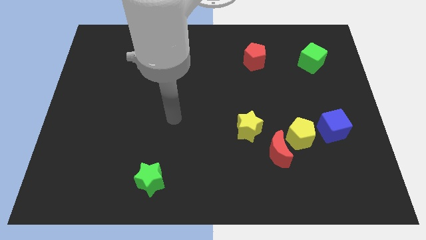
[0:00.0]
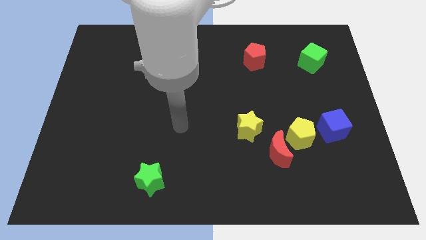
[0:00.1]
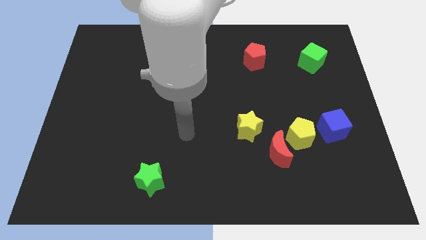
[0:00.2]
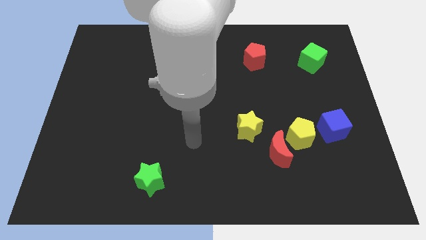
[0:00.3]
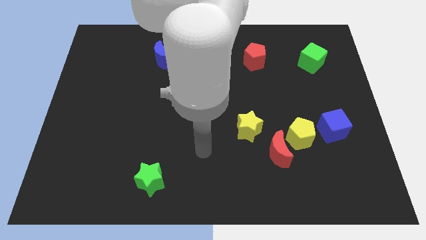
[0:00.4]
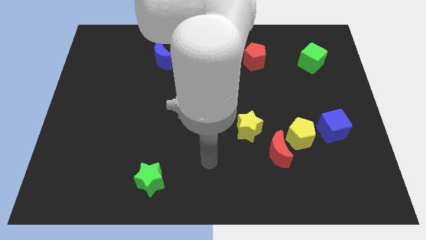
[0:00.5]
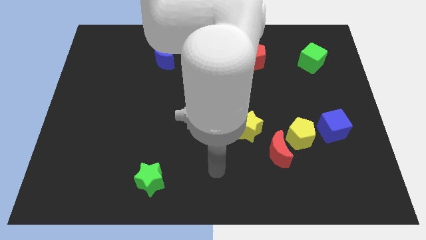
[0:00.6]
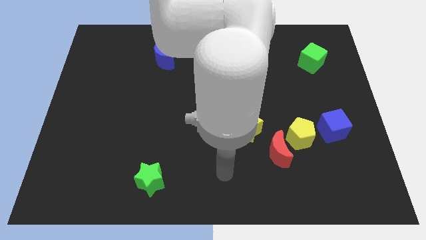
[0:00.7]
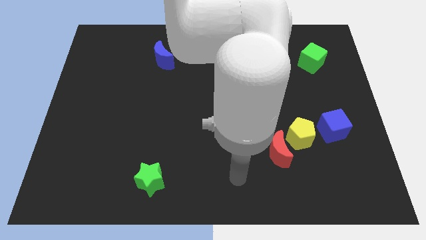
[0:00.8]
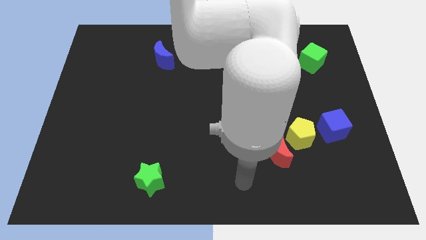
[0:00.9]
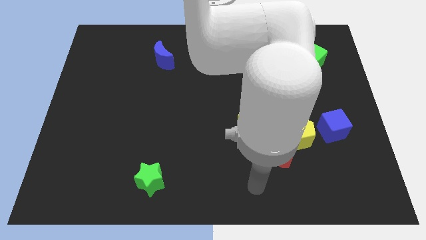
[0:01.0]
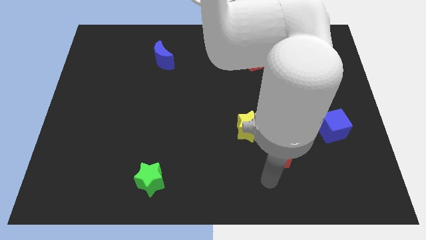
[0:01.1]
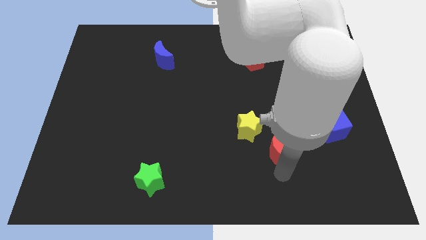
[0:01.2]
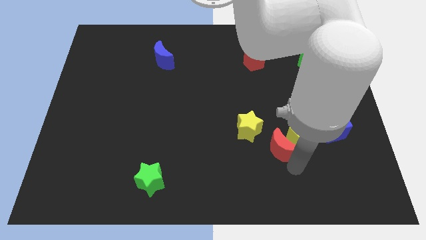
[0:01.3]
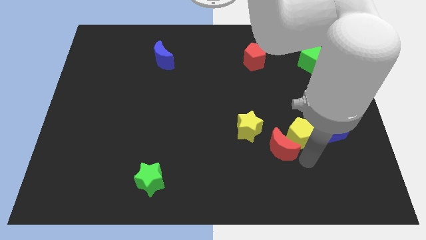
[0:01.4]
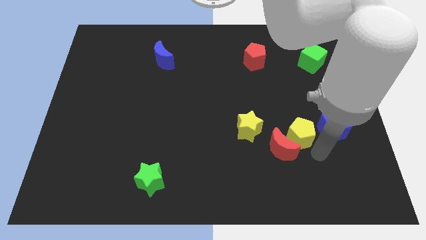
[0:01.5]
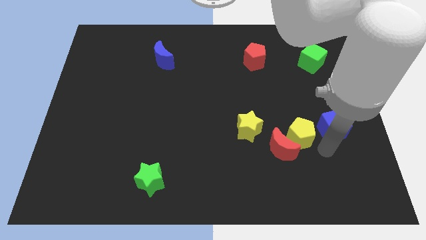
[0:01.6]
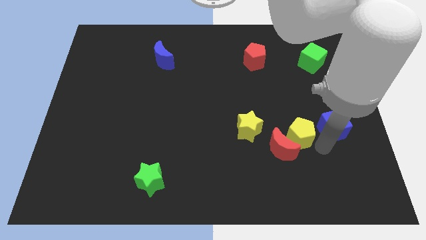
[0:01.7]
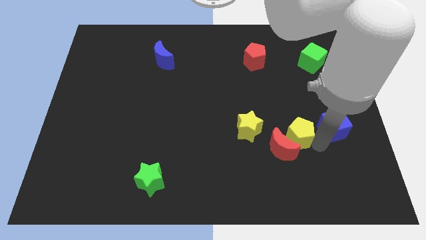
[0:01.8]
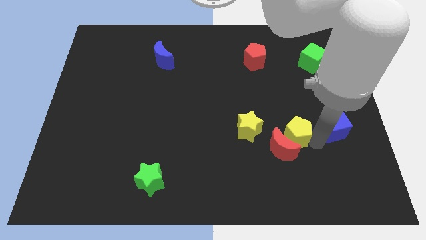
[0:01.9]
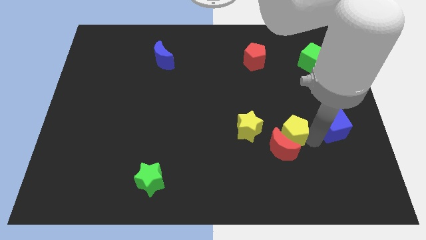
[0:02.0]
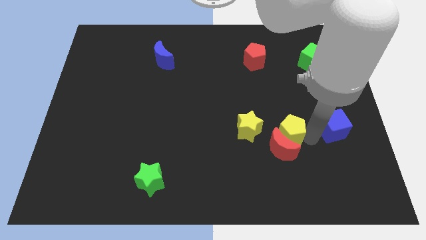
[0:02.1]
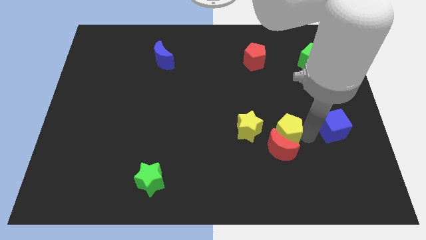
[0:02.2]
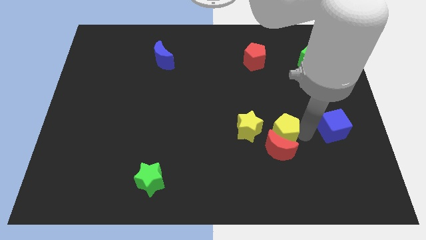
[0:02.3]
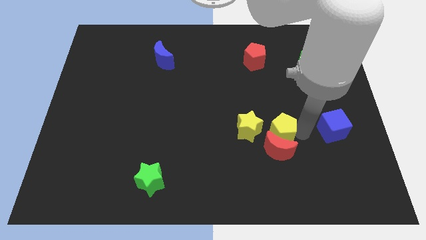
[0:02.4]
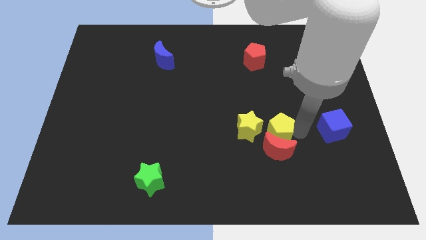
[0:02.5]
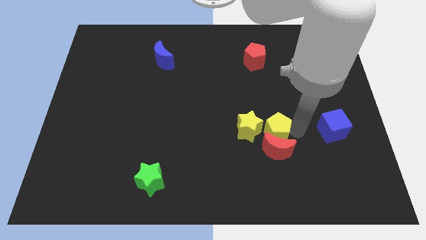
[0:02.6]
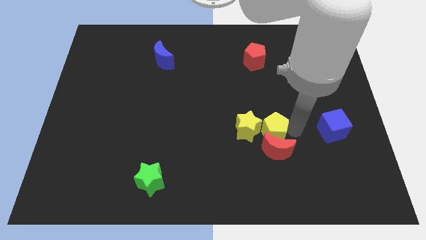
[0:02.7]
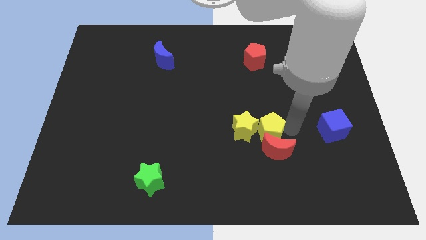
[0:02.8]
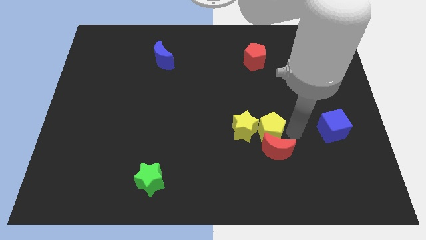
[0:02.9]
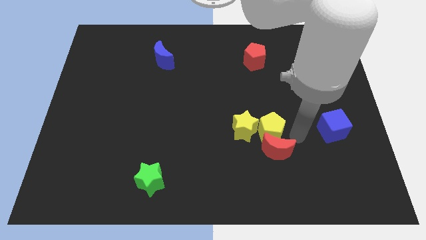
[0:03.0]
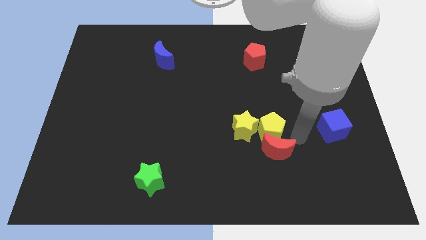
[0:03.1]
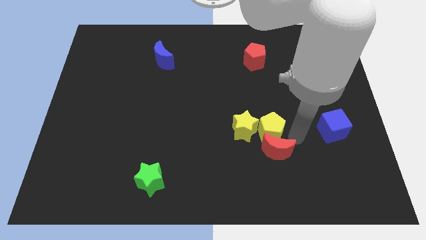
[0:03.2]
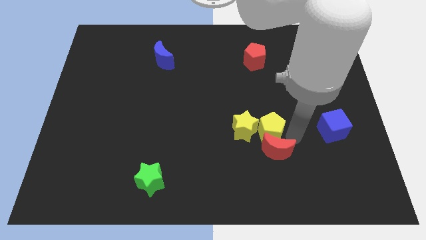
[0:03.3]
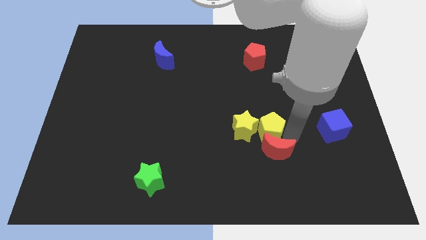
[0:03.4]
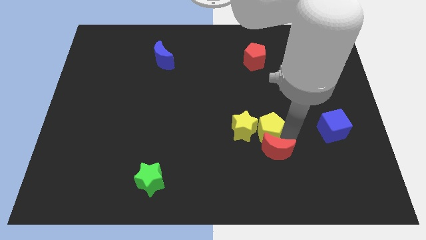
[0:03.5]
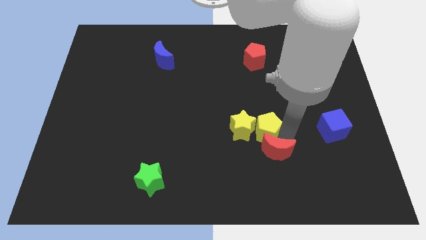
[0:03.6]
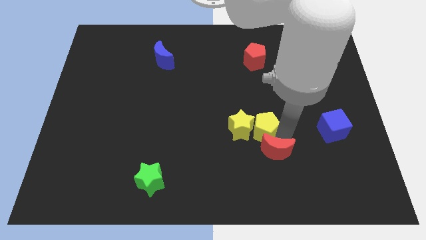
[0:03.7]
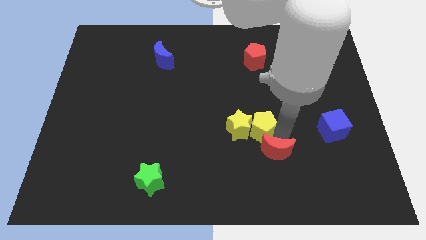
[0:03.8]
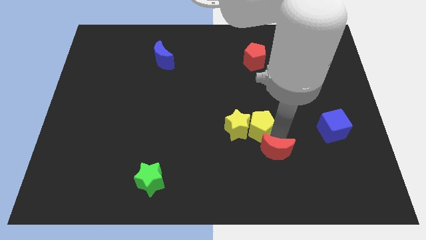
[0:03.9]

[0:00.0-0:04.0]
pull the yellow pentagon apart from the red moon and blue cube

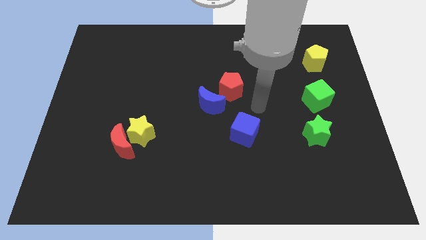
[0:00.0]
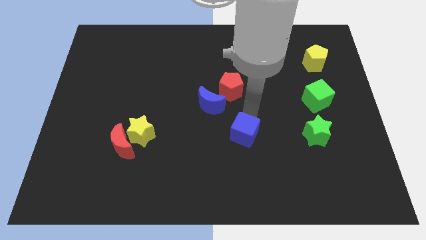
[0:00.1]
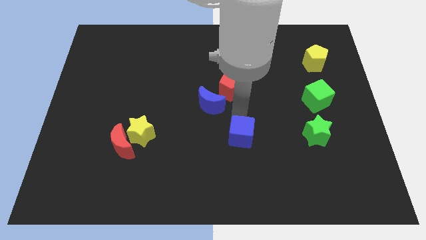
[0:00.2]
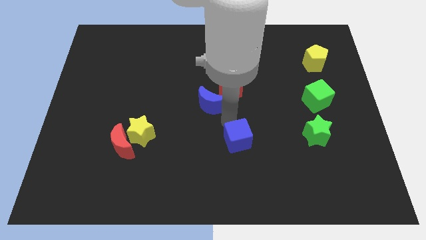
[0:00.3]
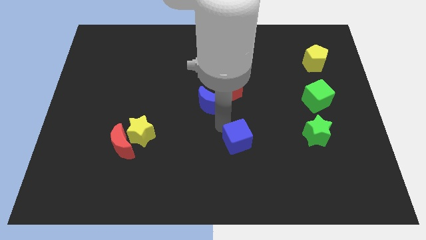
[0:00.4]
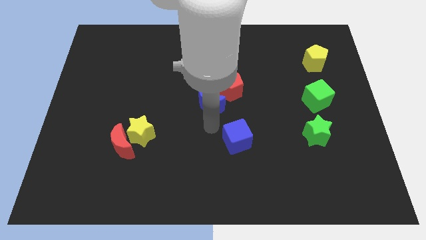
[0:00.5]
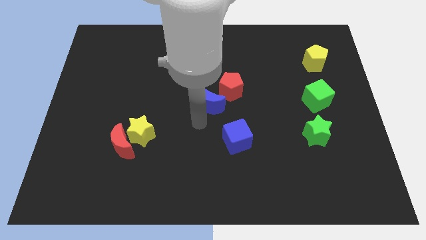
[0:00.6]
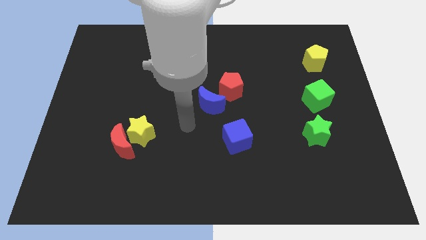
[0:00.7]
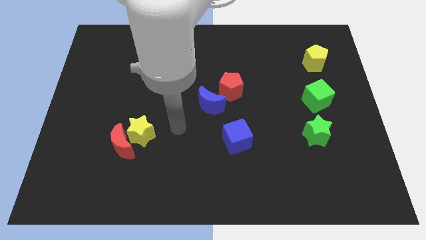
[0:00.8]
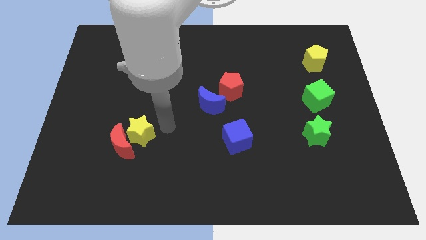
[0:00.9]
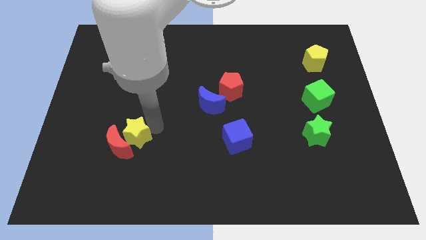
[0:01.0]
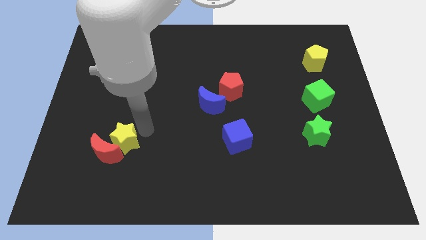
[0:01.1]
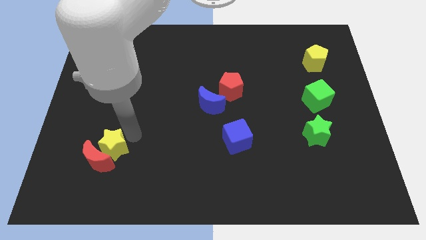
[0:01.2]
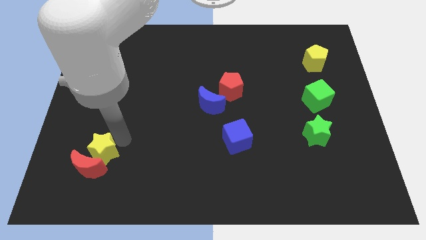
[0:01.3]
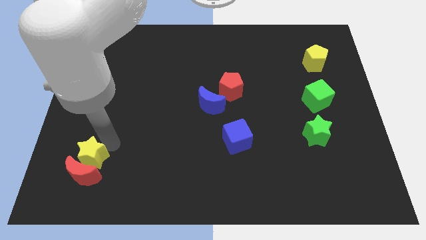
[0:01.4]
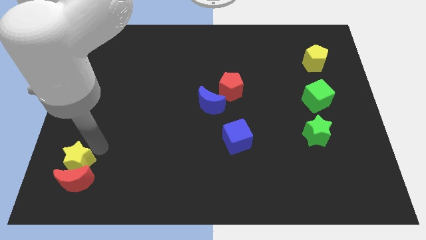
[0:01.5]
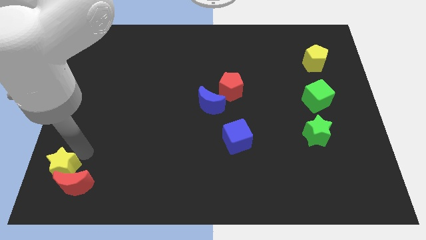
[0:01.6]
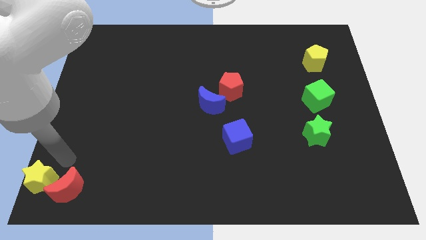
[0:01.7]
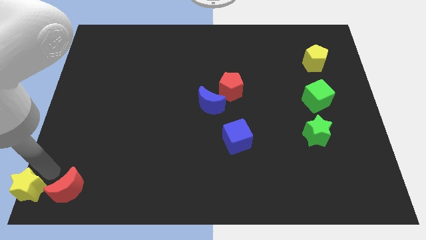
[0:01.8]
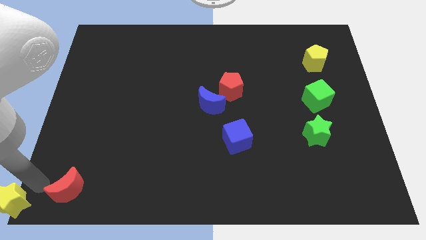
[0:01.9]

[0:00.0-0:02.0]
move the red moon away from the yellow star

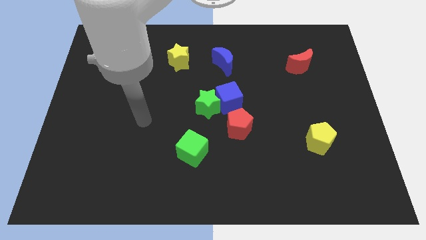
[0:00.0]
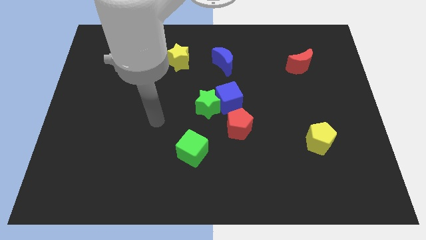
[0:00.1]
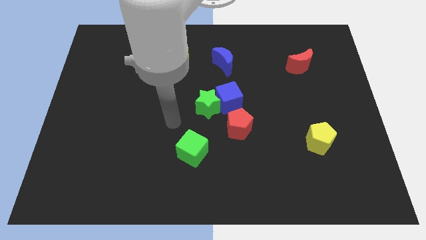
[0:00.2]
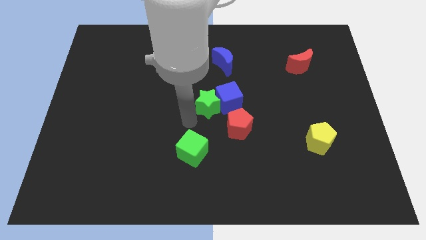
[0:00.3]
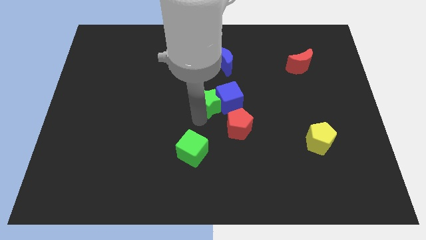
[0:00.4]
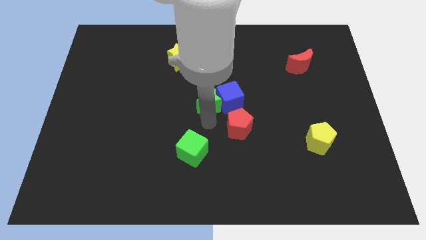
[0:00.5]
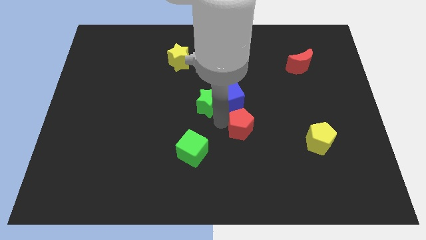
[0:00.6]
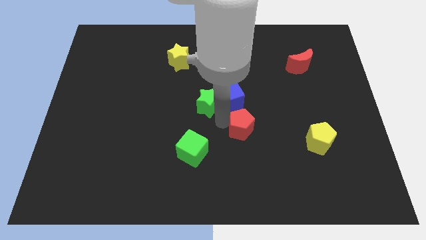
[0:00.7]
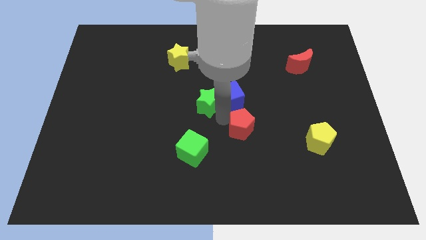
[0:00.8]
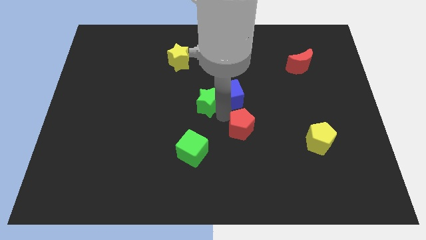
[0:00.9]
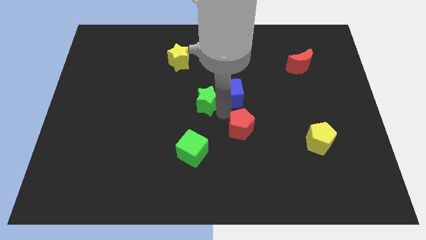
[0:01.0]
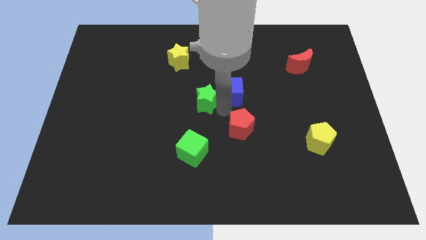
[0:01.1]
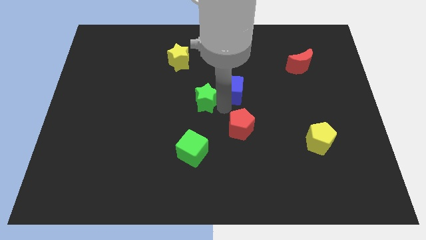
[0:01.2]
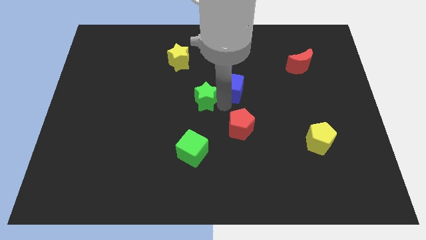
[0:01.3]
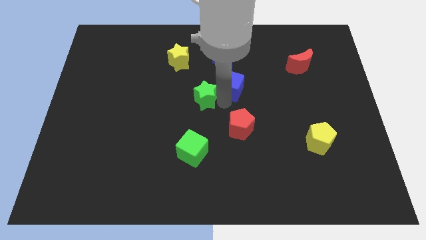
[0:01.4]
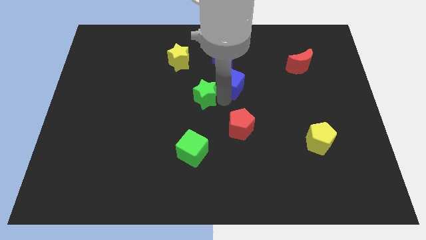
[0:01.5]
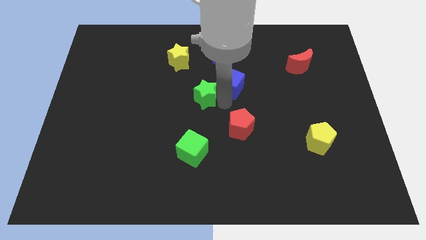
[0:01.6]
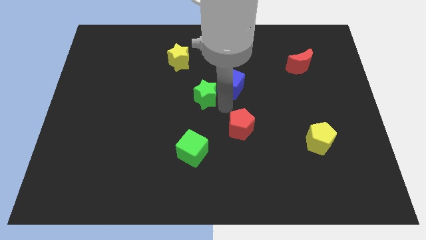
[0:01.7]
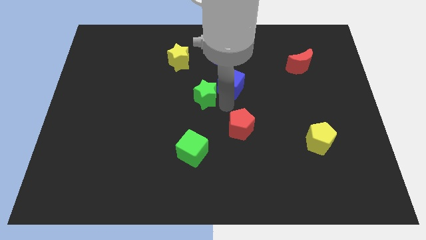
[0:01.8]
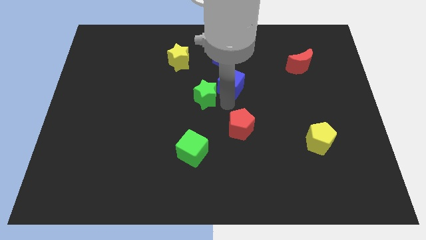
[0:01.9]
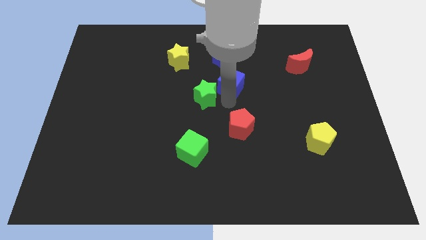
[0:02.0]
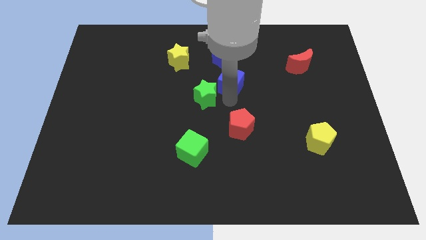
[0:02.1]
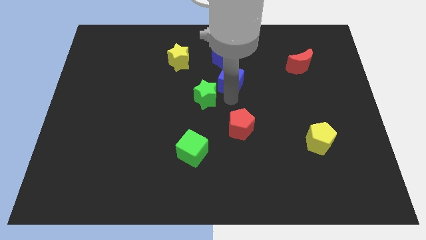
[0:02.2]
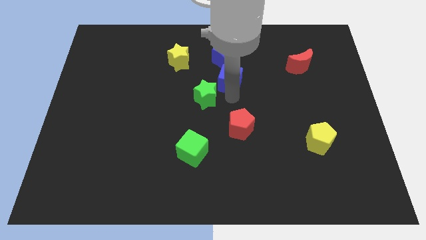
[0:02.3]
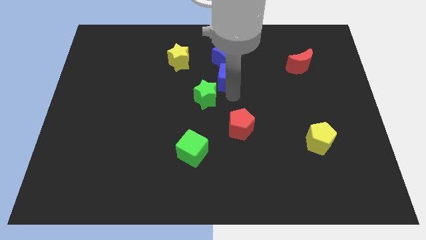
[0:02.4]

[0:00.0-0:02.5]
separate the blue cube from the green star and red pentagon

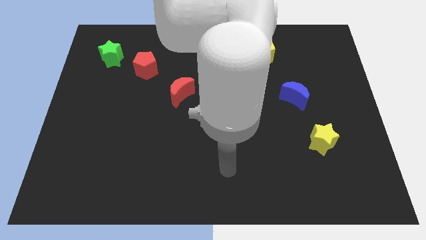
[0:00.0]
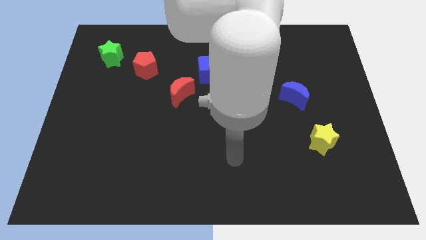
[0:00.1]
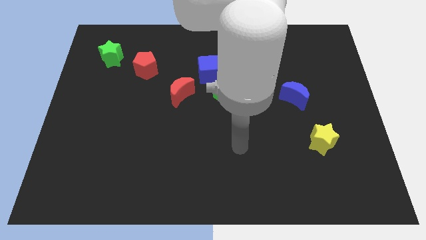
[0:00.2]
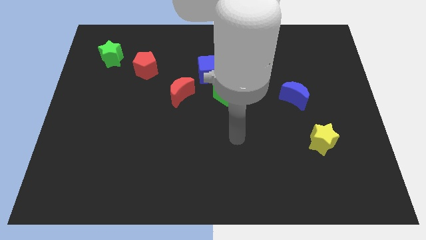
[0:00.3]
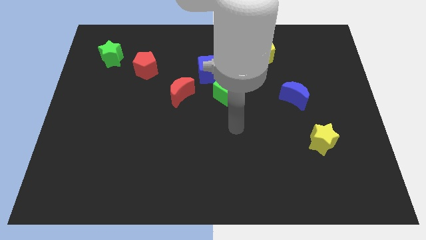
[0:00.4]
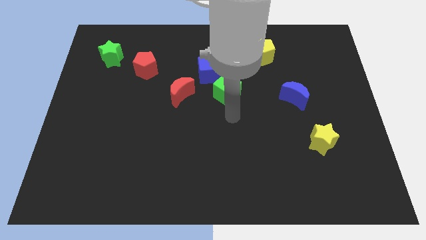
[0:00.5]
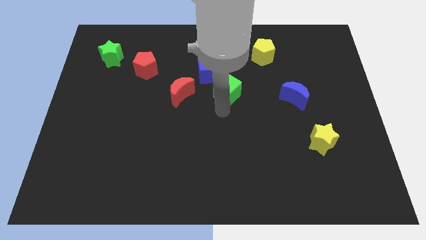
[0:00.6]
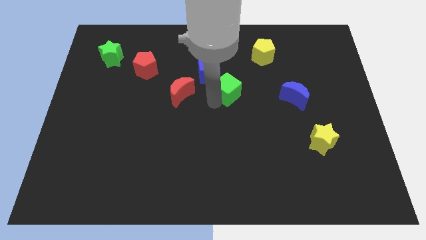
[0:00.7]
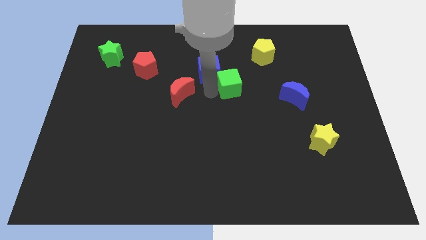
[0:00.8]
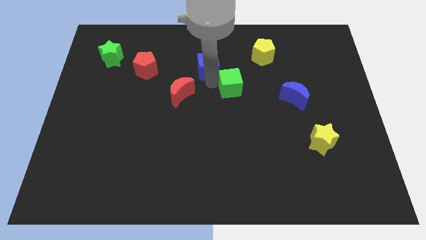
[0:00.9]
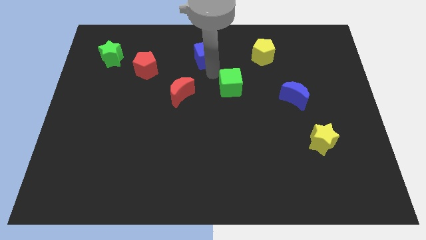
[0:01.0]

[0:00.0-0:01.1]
separate the green cube from the blue cube
